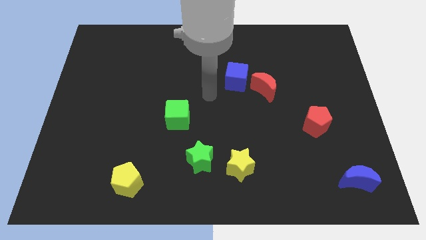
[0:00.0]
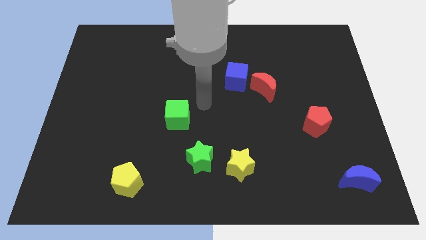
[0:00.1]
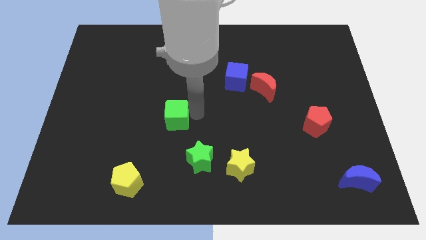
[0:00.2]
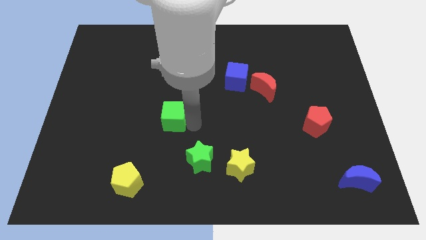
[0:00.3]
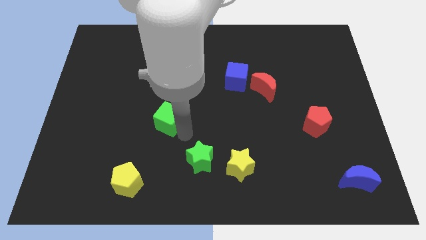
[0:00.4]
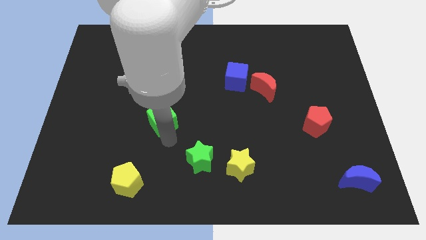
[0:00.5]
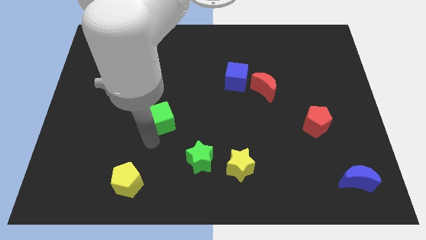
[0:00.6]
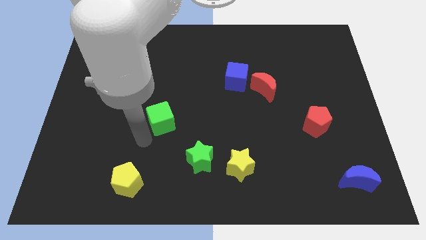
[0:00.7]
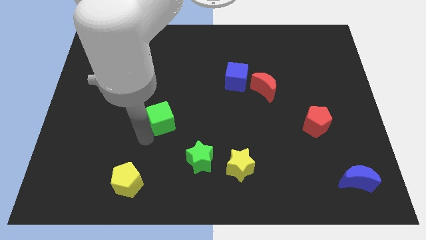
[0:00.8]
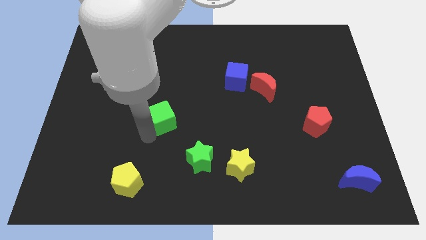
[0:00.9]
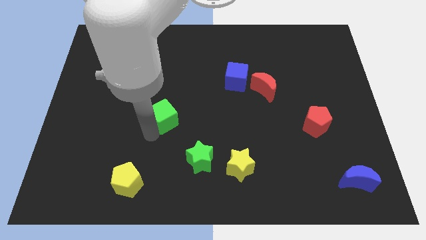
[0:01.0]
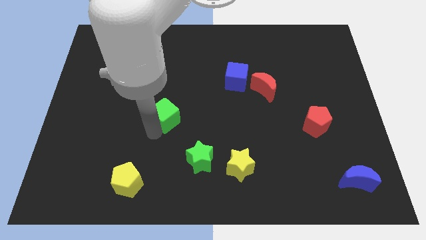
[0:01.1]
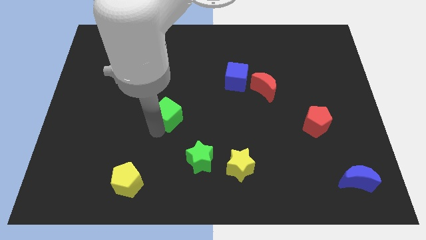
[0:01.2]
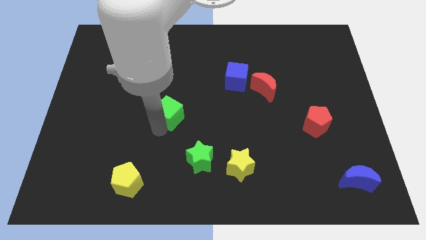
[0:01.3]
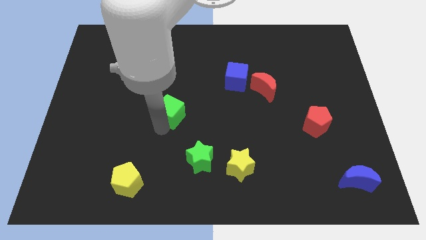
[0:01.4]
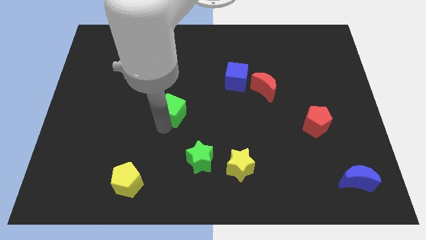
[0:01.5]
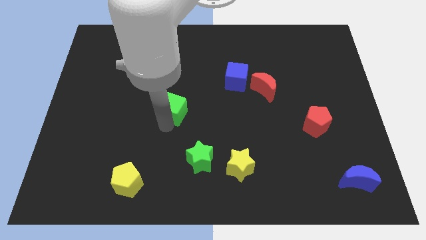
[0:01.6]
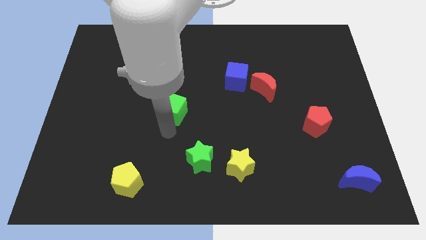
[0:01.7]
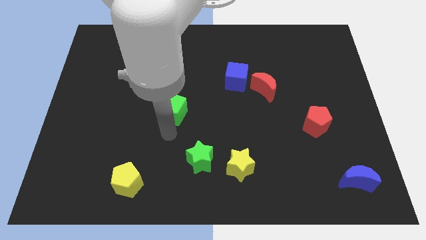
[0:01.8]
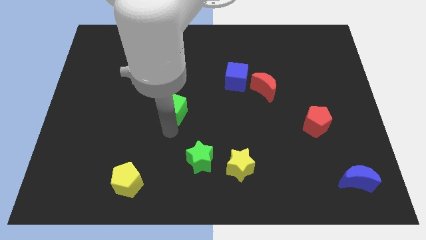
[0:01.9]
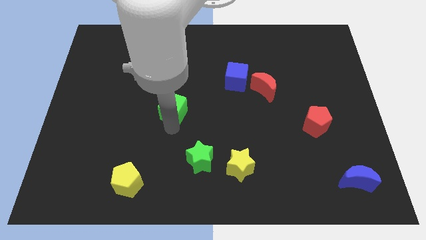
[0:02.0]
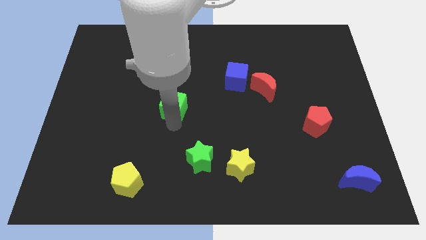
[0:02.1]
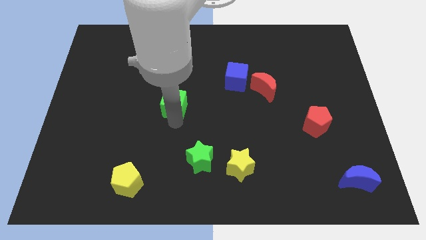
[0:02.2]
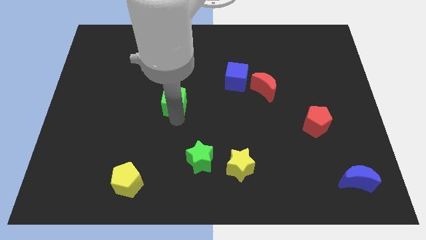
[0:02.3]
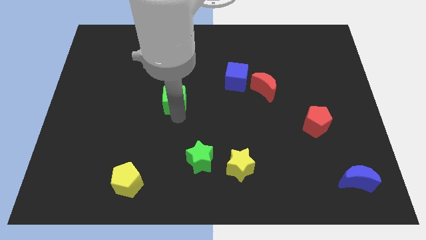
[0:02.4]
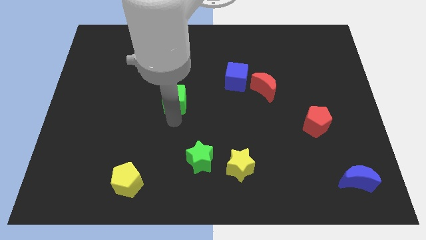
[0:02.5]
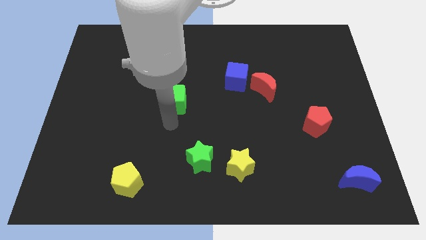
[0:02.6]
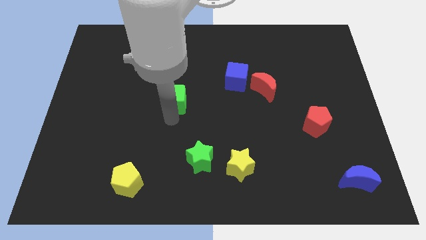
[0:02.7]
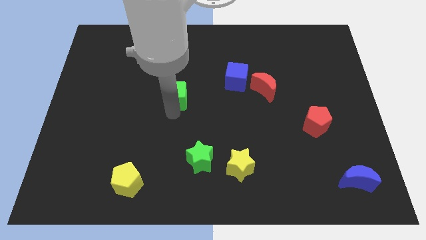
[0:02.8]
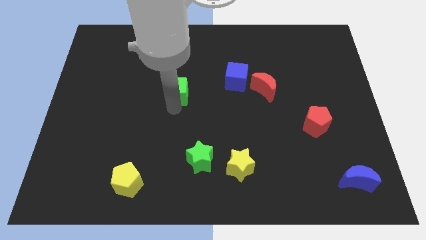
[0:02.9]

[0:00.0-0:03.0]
push the green cube a bit upwards

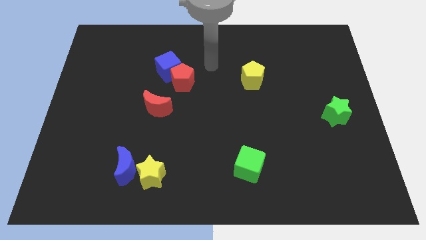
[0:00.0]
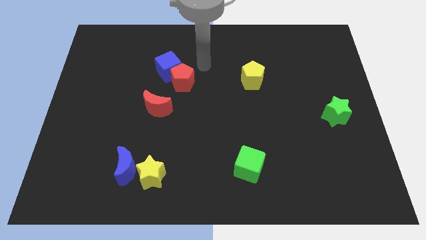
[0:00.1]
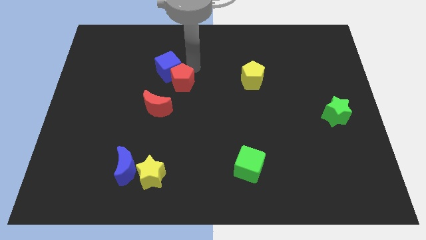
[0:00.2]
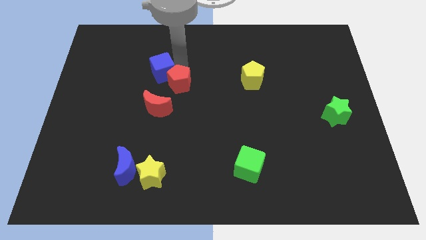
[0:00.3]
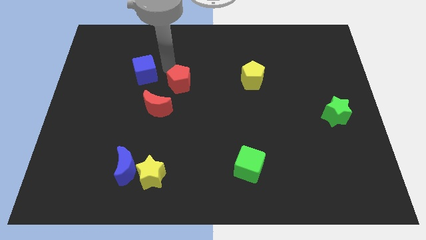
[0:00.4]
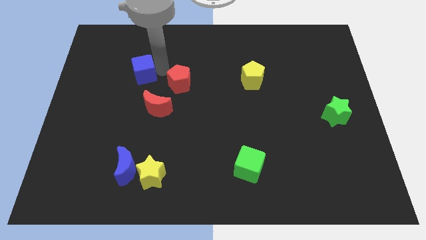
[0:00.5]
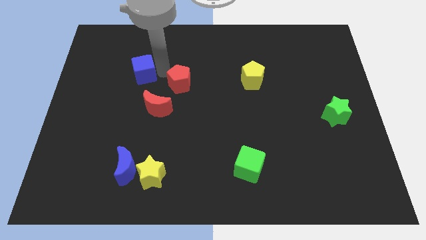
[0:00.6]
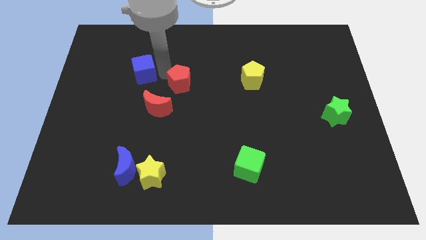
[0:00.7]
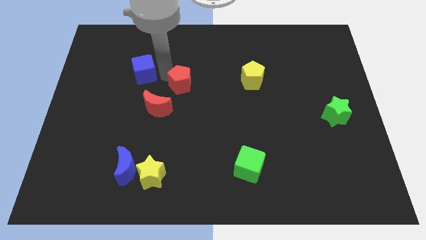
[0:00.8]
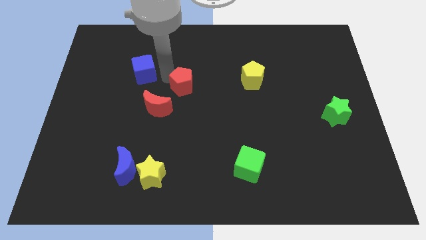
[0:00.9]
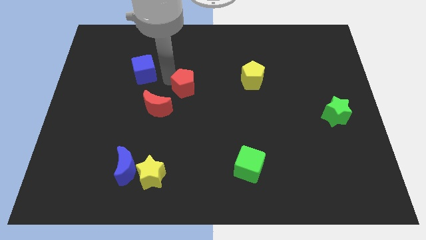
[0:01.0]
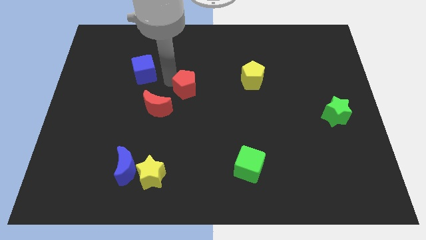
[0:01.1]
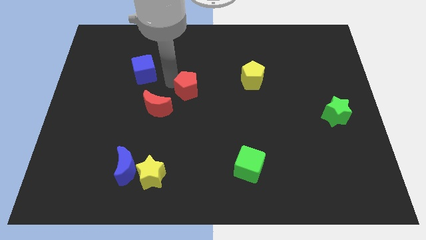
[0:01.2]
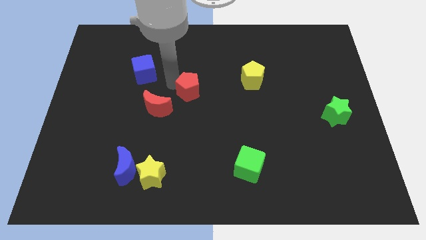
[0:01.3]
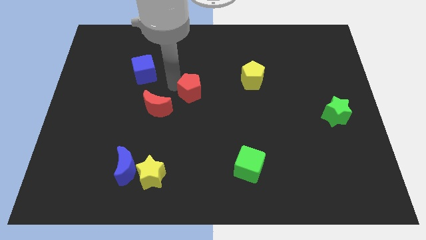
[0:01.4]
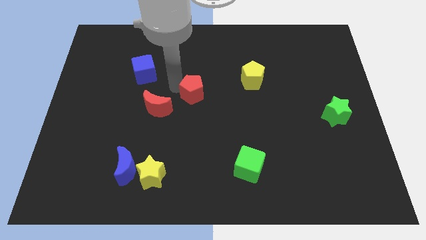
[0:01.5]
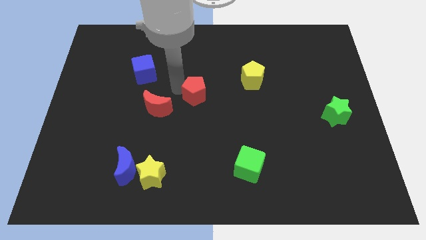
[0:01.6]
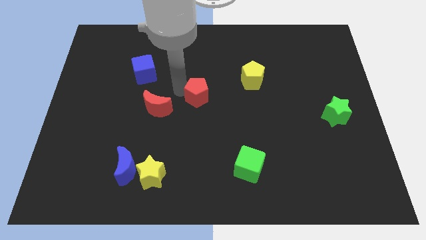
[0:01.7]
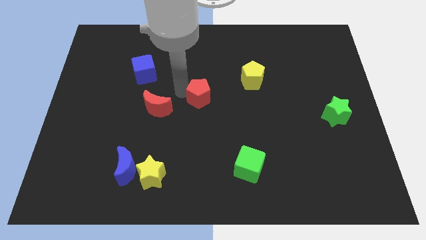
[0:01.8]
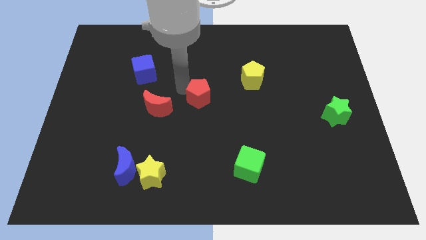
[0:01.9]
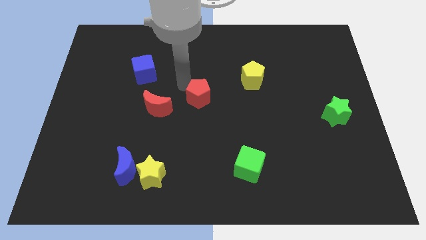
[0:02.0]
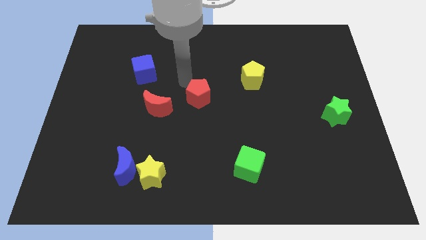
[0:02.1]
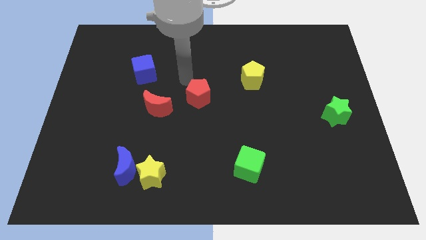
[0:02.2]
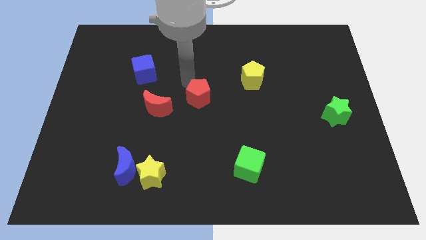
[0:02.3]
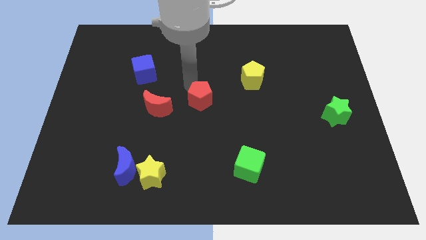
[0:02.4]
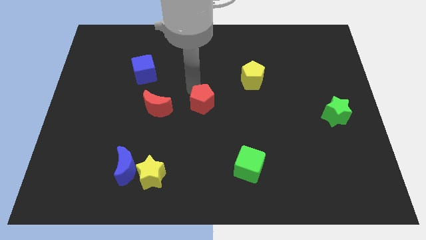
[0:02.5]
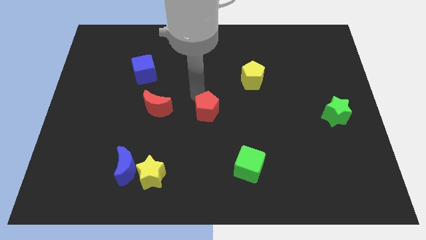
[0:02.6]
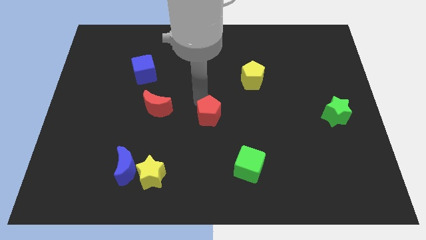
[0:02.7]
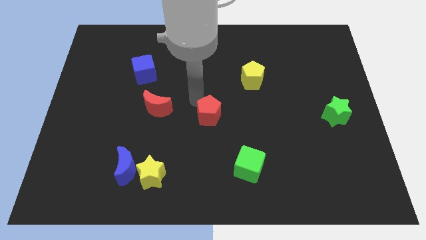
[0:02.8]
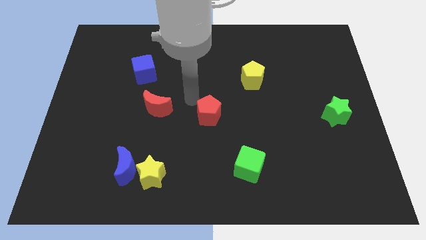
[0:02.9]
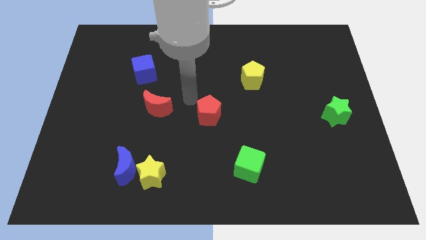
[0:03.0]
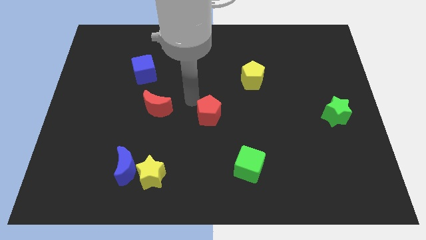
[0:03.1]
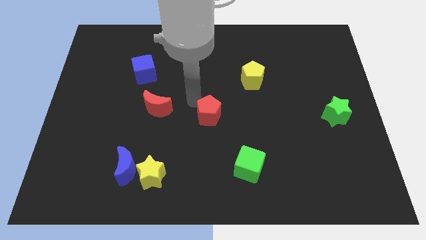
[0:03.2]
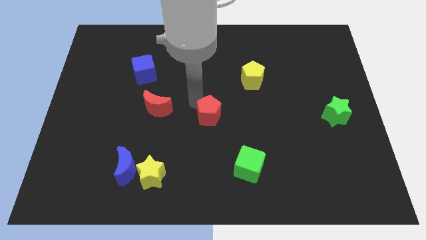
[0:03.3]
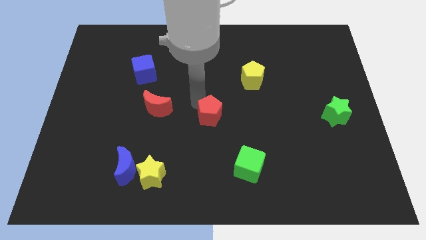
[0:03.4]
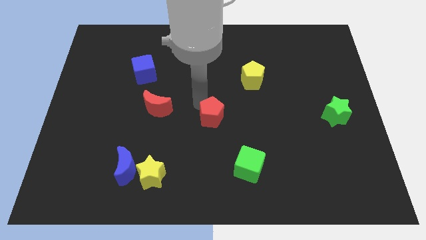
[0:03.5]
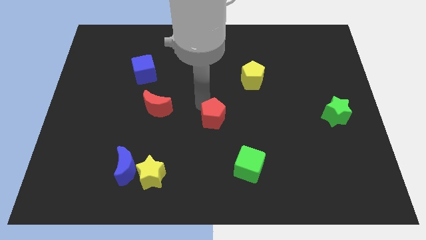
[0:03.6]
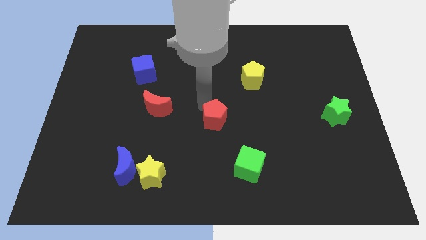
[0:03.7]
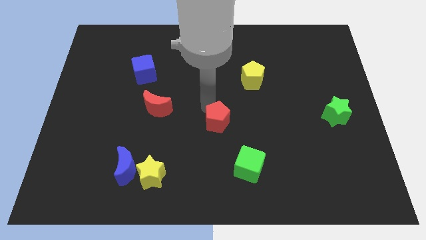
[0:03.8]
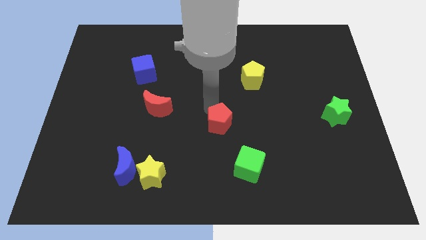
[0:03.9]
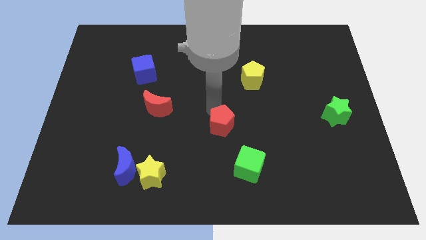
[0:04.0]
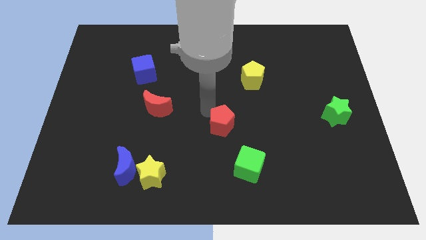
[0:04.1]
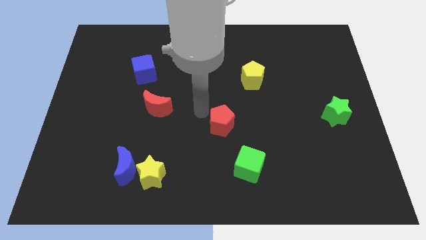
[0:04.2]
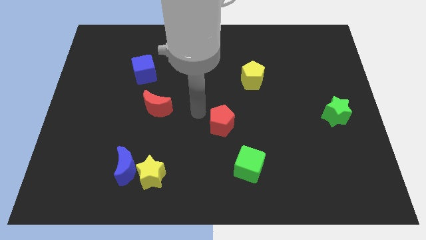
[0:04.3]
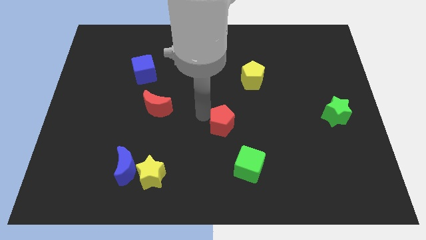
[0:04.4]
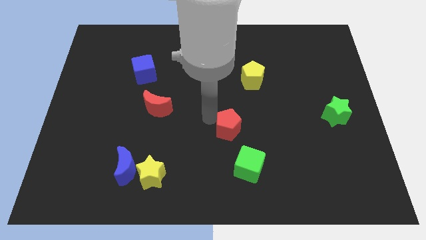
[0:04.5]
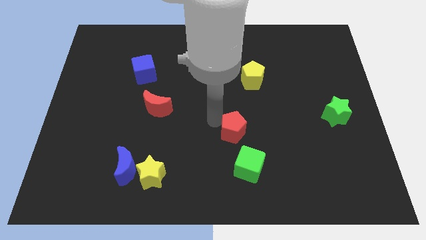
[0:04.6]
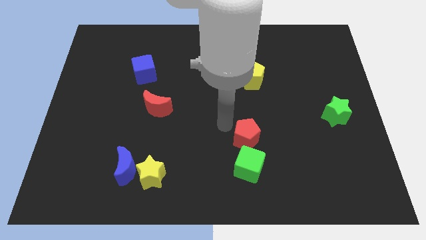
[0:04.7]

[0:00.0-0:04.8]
push the red pentagon downwards and to the right
